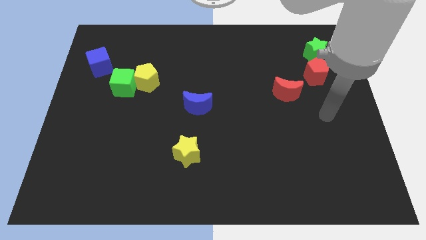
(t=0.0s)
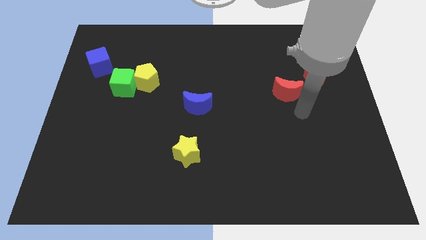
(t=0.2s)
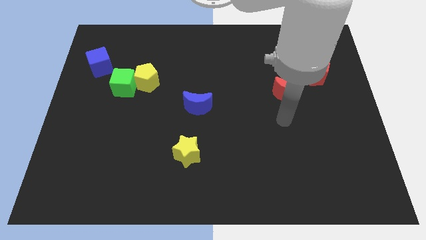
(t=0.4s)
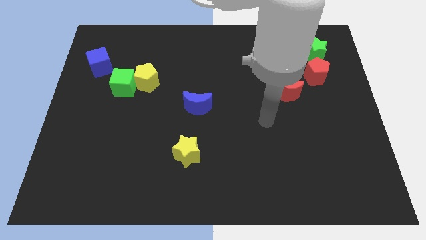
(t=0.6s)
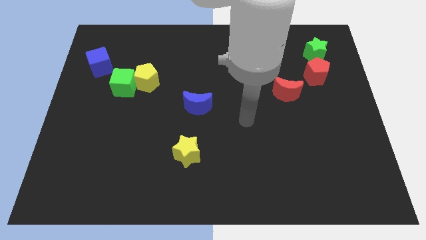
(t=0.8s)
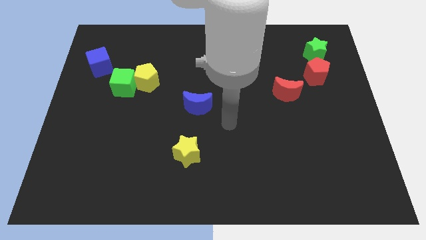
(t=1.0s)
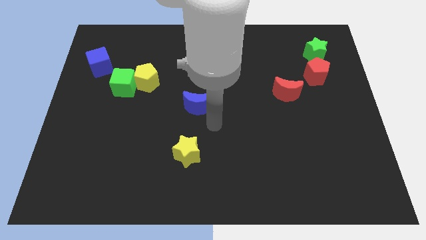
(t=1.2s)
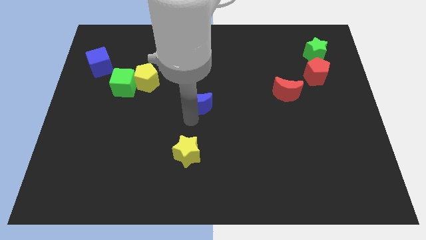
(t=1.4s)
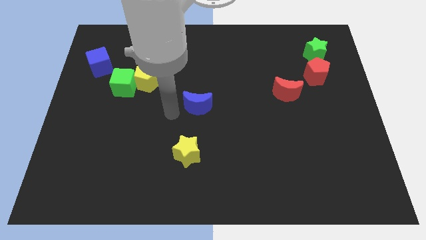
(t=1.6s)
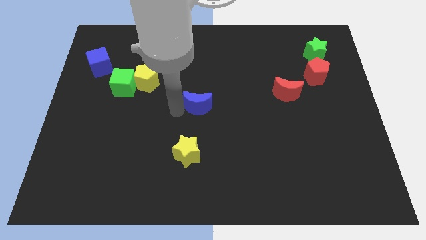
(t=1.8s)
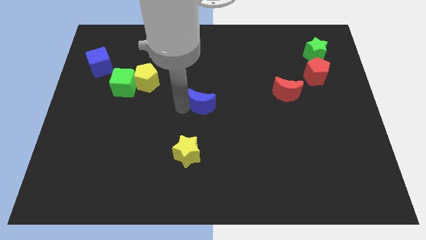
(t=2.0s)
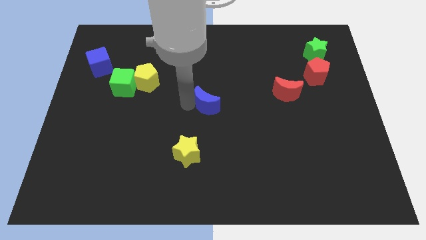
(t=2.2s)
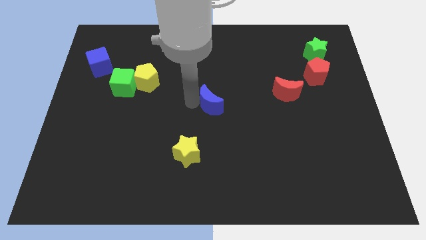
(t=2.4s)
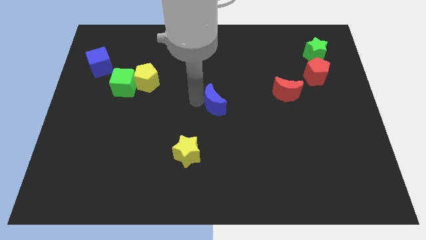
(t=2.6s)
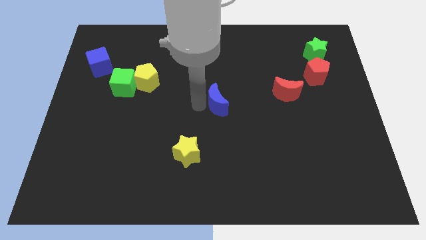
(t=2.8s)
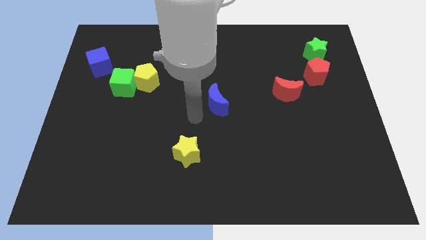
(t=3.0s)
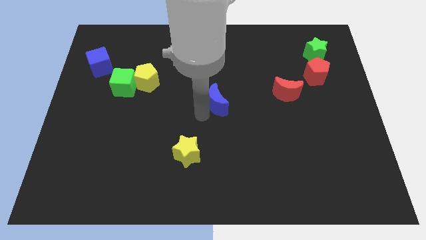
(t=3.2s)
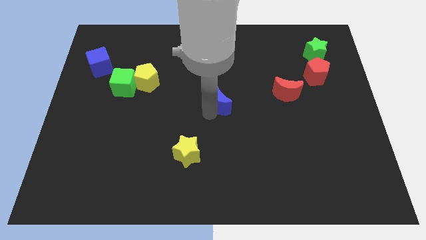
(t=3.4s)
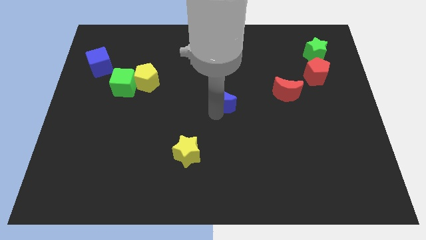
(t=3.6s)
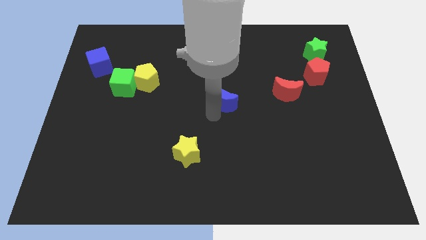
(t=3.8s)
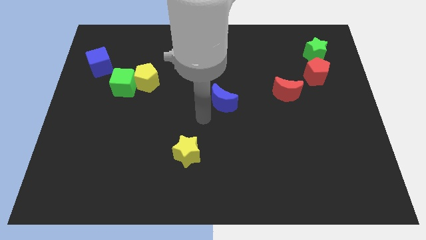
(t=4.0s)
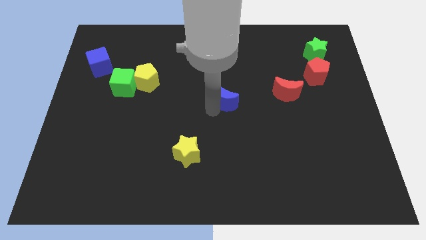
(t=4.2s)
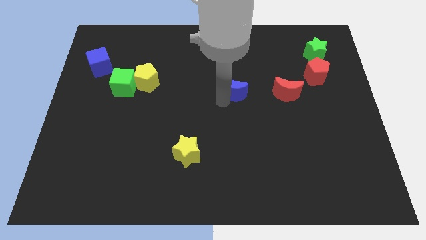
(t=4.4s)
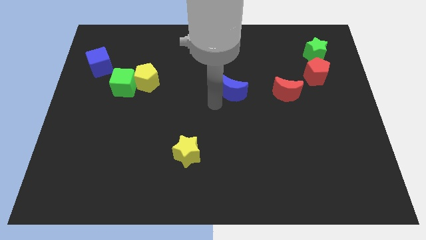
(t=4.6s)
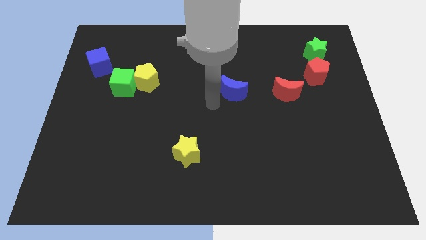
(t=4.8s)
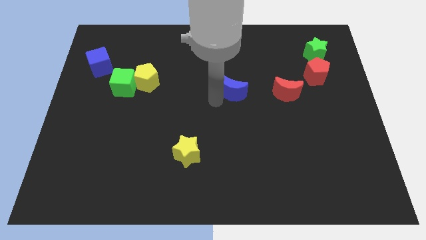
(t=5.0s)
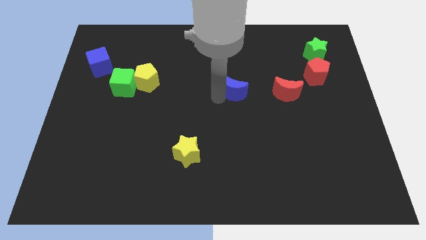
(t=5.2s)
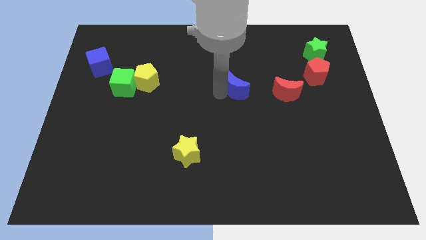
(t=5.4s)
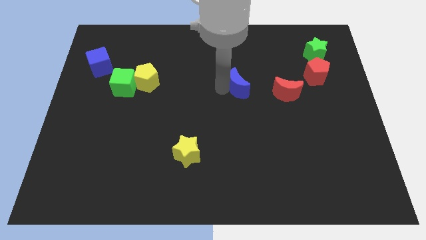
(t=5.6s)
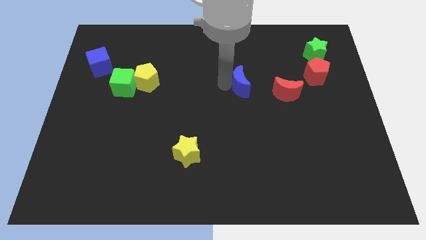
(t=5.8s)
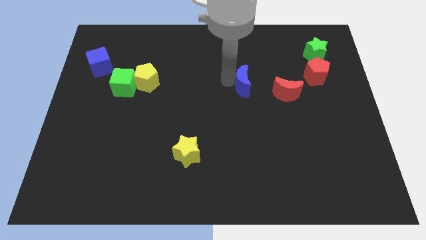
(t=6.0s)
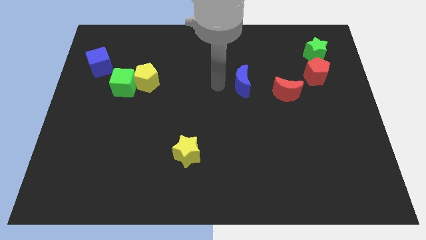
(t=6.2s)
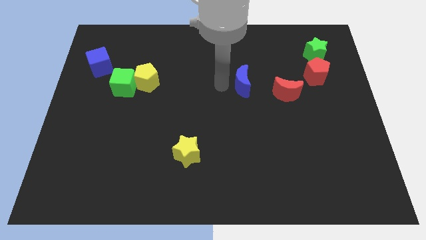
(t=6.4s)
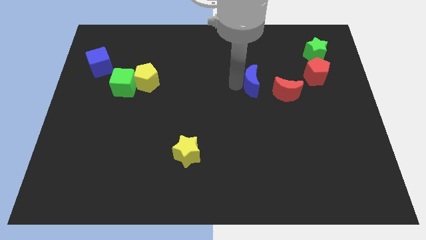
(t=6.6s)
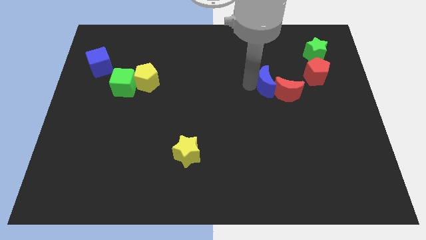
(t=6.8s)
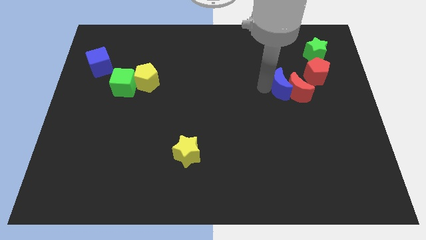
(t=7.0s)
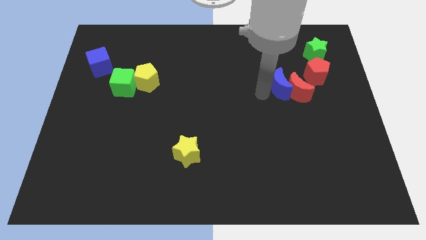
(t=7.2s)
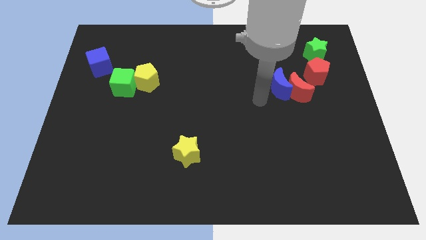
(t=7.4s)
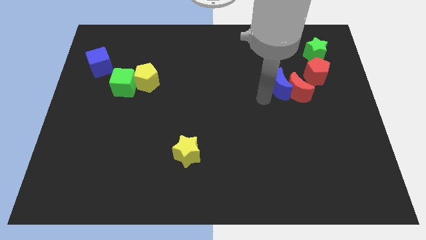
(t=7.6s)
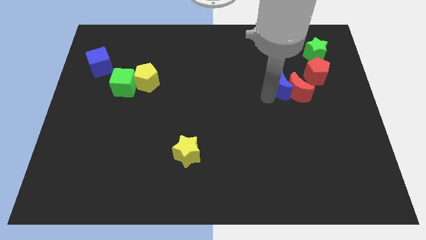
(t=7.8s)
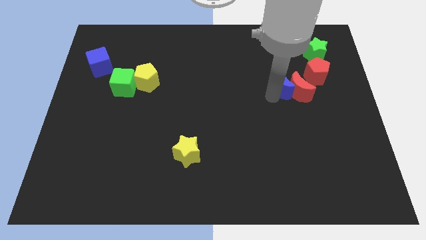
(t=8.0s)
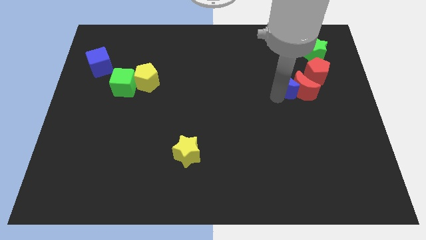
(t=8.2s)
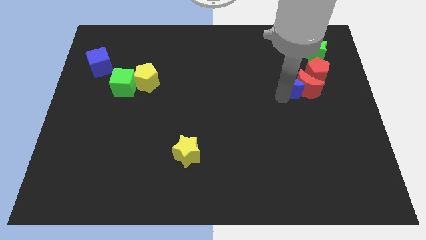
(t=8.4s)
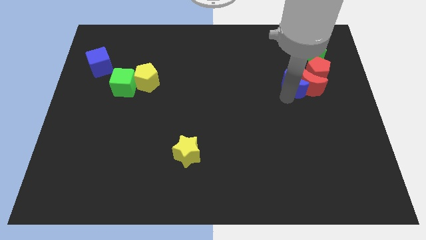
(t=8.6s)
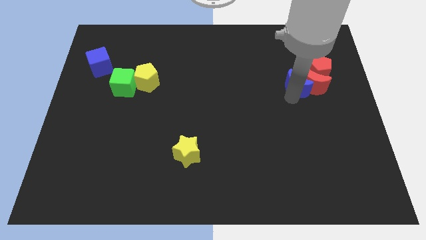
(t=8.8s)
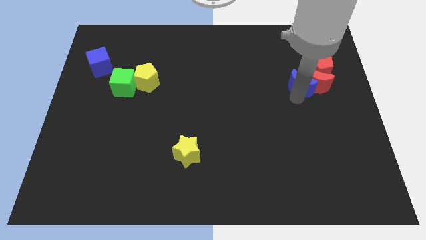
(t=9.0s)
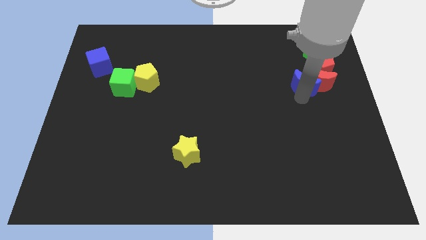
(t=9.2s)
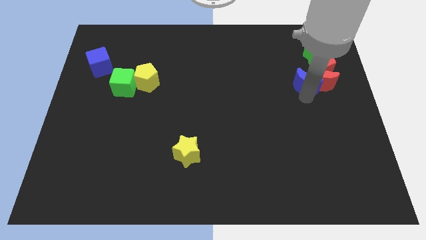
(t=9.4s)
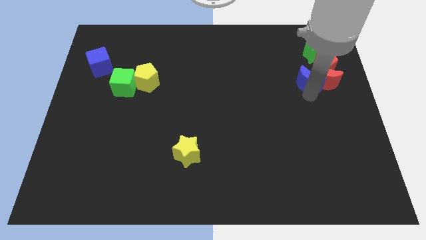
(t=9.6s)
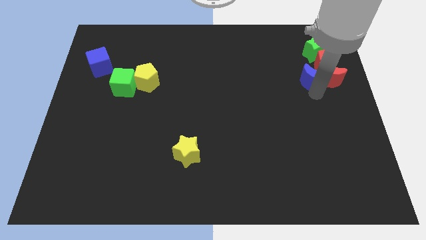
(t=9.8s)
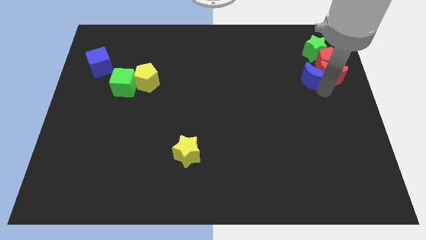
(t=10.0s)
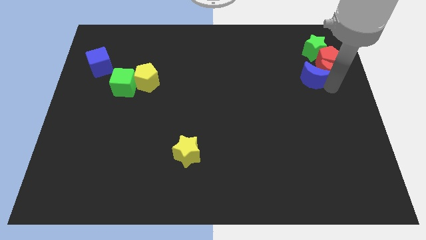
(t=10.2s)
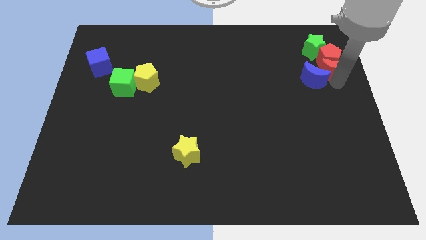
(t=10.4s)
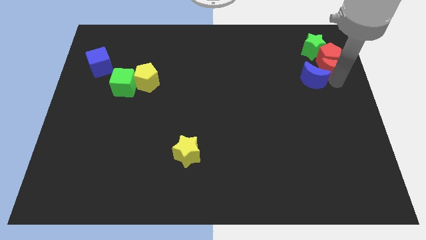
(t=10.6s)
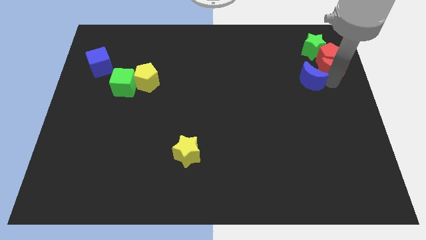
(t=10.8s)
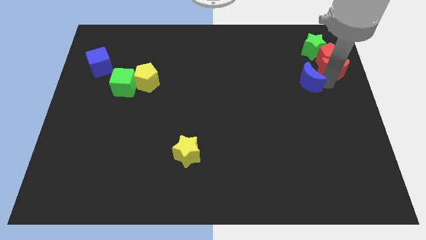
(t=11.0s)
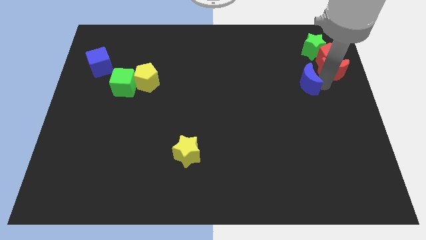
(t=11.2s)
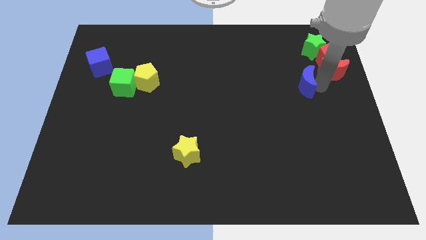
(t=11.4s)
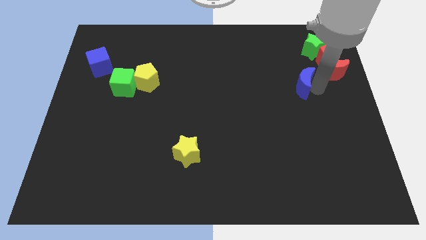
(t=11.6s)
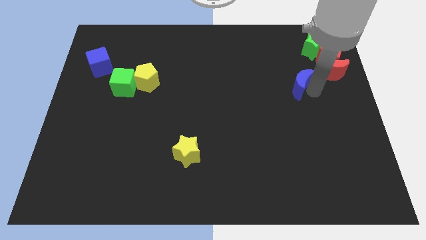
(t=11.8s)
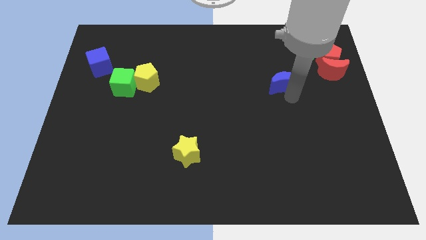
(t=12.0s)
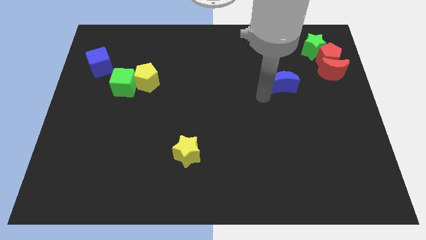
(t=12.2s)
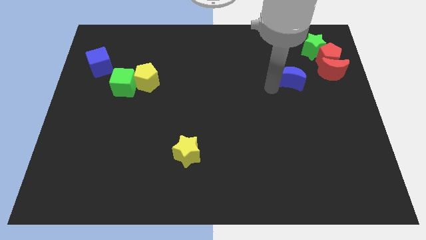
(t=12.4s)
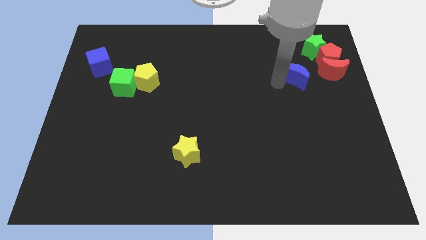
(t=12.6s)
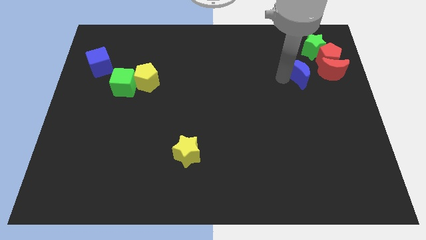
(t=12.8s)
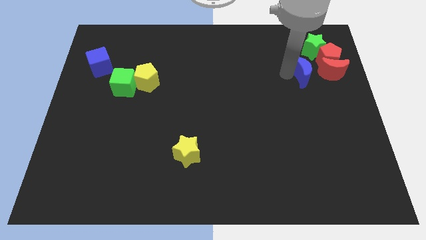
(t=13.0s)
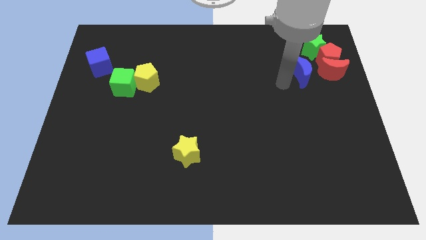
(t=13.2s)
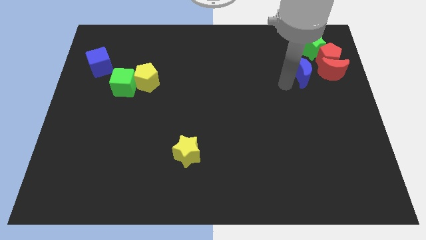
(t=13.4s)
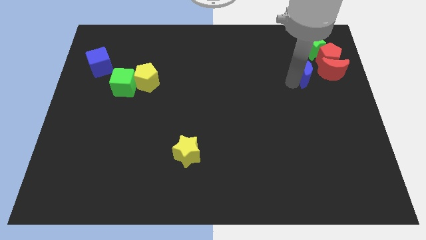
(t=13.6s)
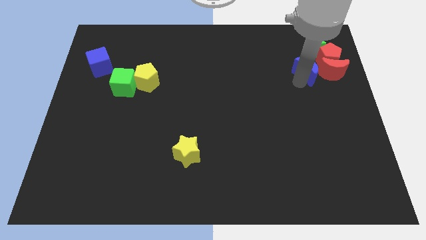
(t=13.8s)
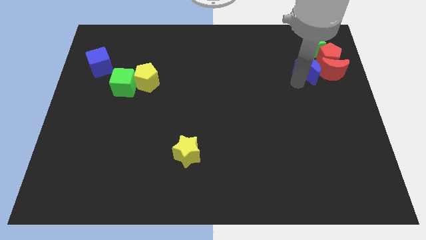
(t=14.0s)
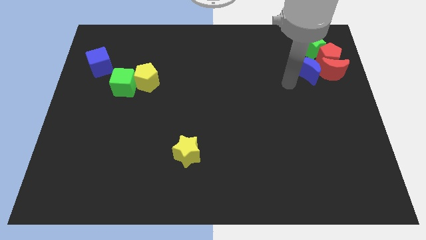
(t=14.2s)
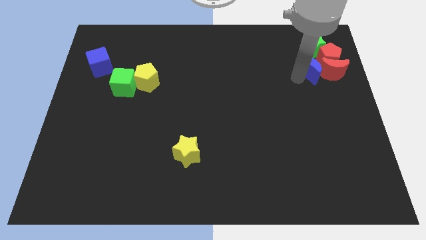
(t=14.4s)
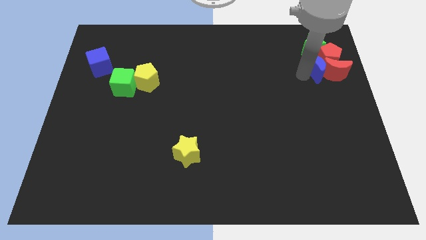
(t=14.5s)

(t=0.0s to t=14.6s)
push the blue moon next to the red pentagon

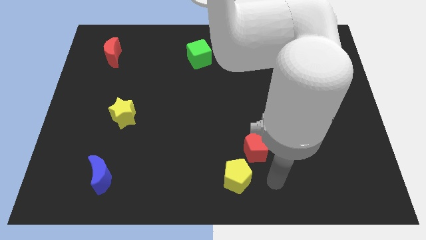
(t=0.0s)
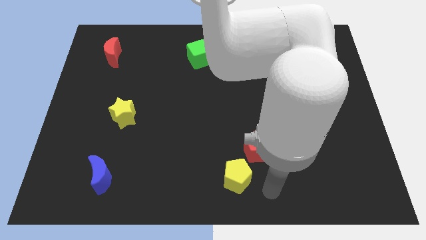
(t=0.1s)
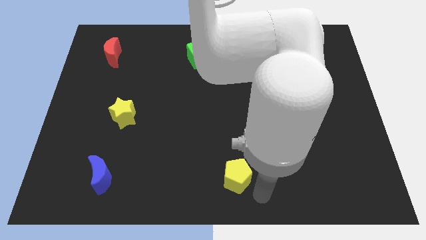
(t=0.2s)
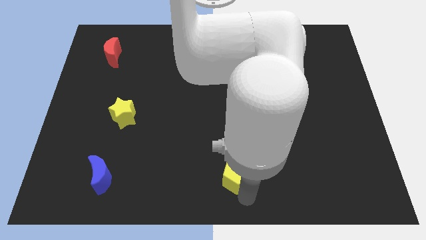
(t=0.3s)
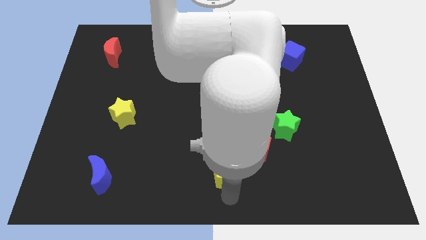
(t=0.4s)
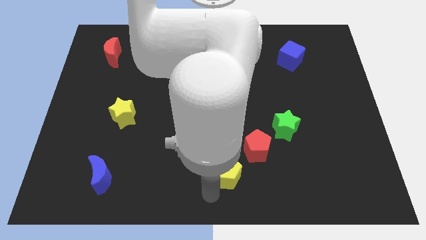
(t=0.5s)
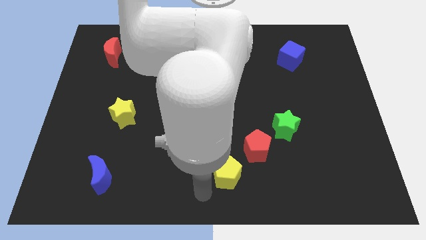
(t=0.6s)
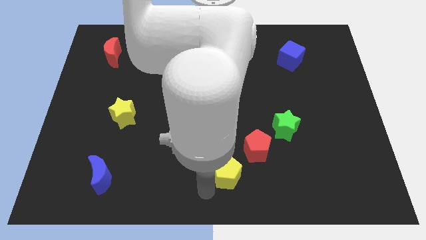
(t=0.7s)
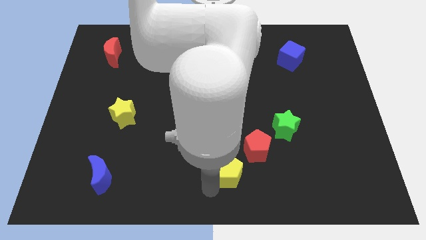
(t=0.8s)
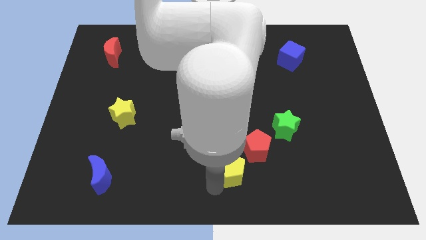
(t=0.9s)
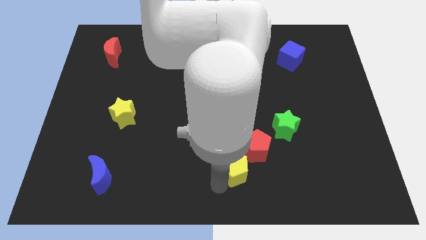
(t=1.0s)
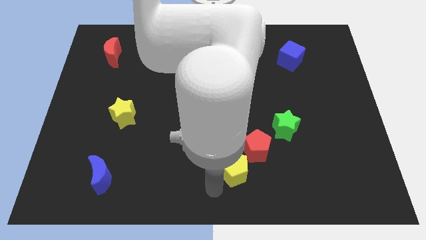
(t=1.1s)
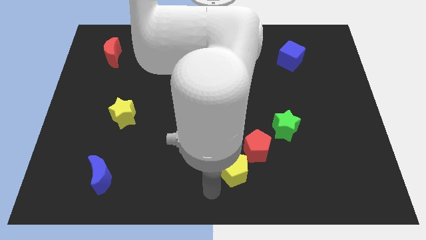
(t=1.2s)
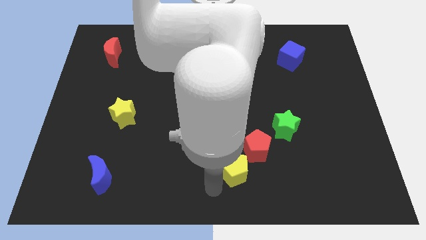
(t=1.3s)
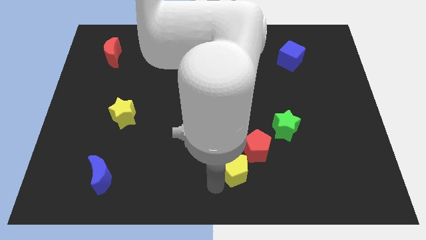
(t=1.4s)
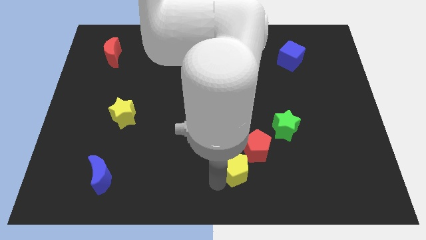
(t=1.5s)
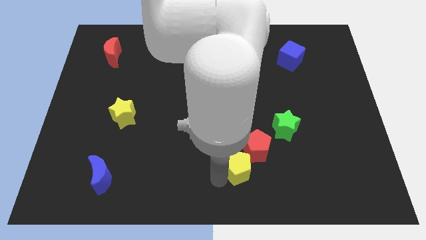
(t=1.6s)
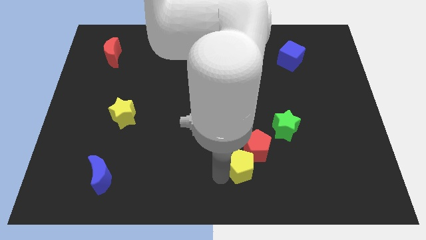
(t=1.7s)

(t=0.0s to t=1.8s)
move the yellow pentagon to the red pentagon
